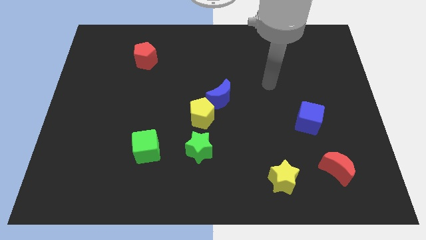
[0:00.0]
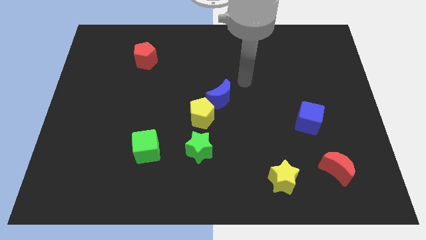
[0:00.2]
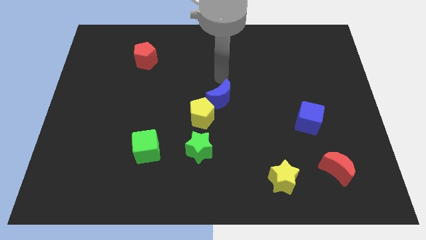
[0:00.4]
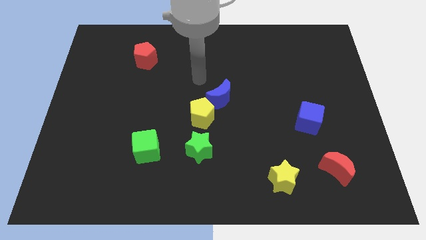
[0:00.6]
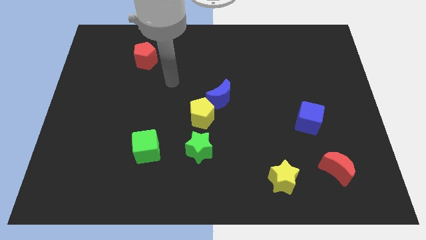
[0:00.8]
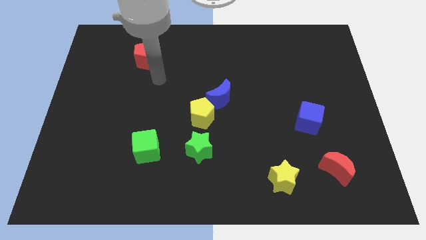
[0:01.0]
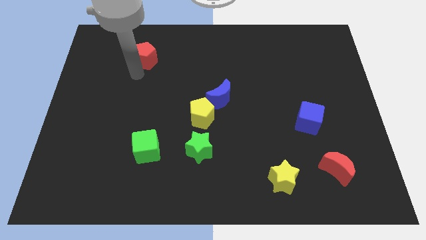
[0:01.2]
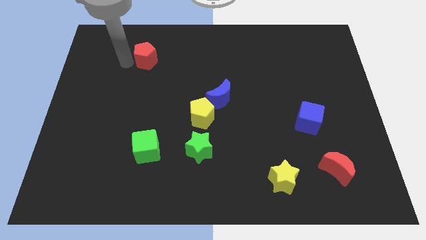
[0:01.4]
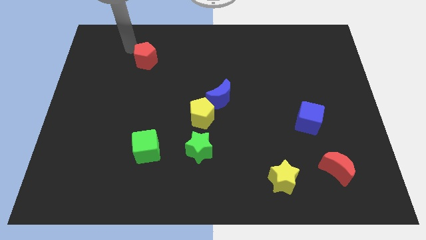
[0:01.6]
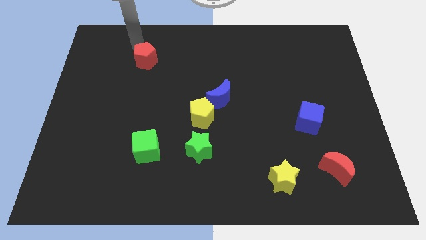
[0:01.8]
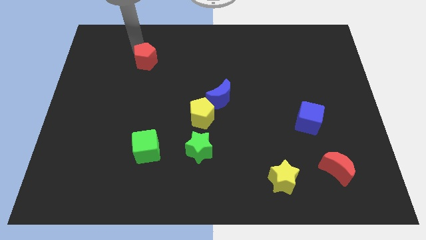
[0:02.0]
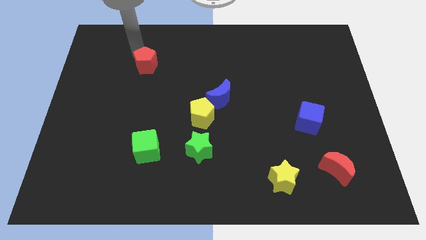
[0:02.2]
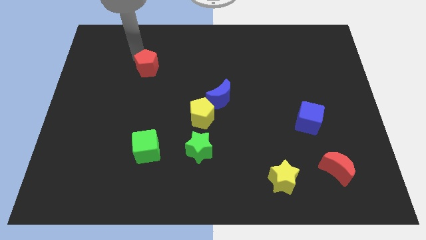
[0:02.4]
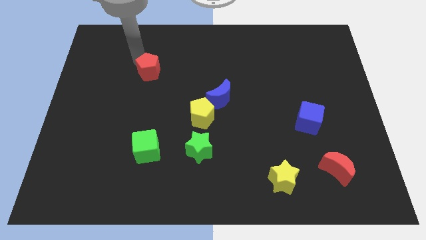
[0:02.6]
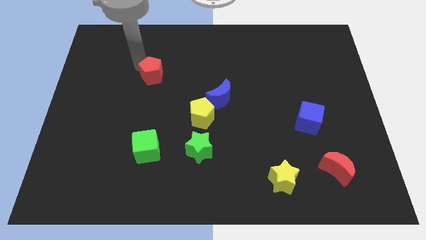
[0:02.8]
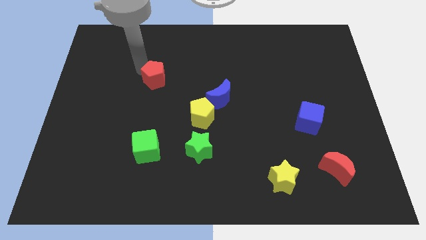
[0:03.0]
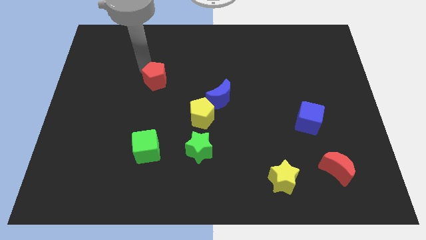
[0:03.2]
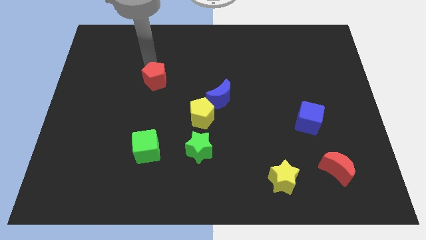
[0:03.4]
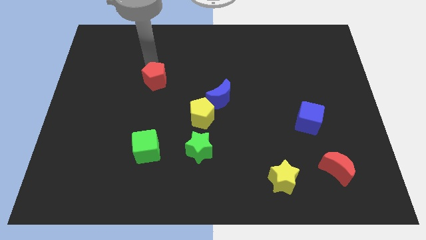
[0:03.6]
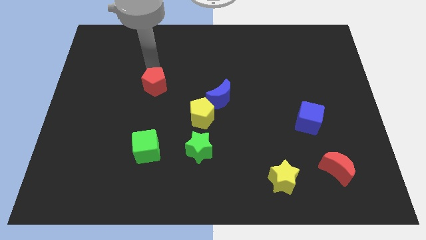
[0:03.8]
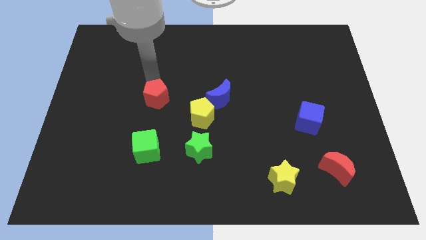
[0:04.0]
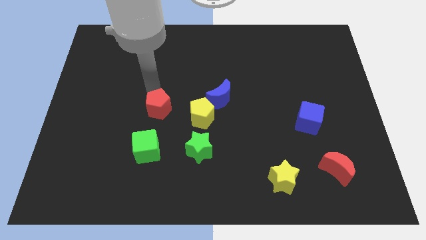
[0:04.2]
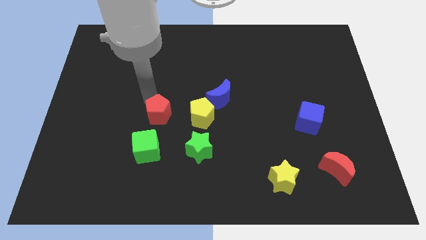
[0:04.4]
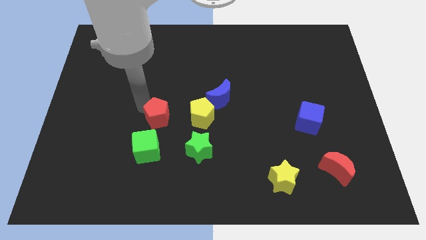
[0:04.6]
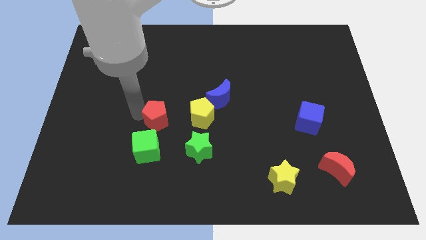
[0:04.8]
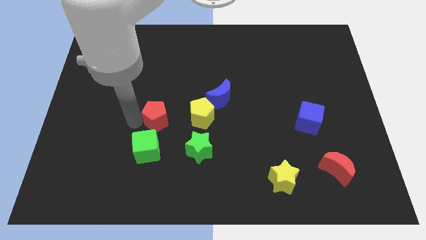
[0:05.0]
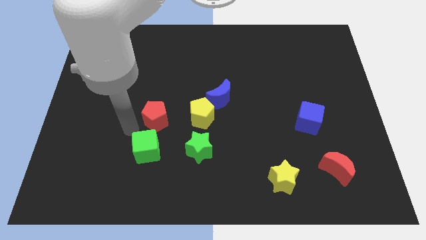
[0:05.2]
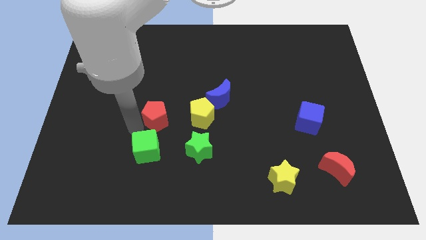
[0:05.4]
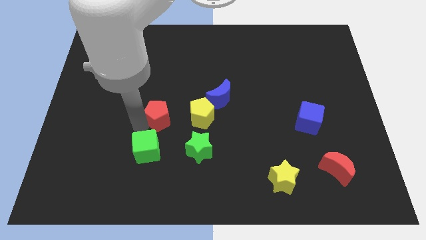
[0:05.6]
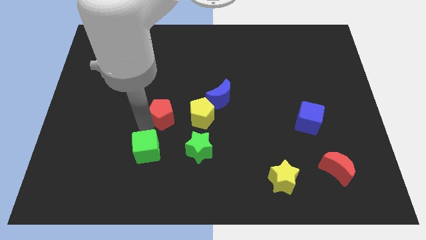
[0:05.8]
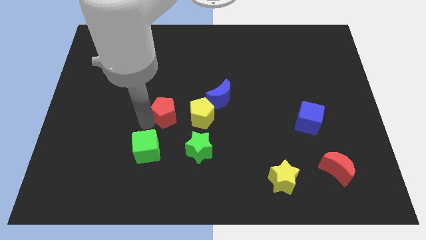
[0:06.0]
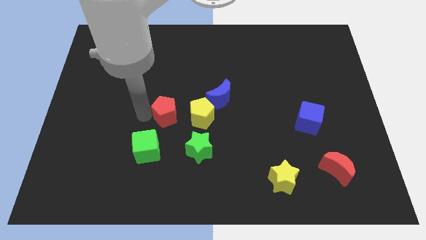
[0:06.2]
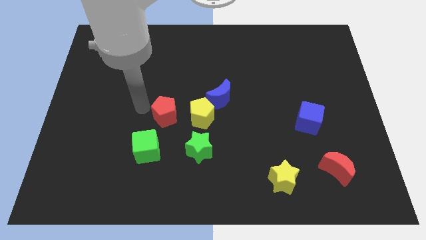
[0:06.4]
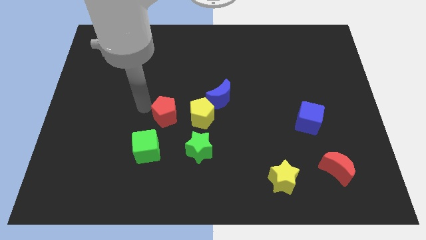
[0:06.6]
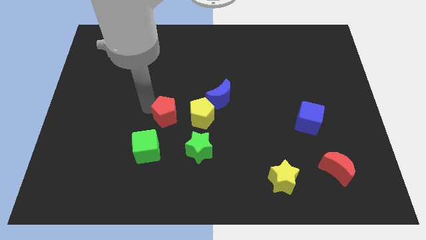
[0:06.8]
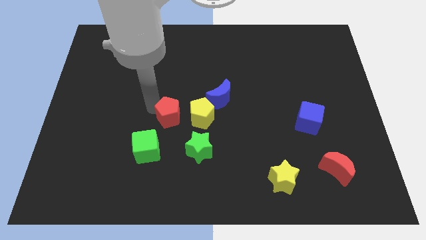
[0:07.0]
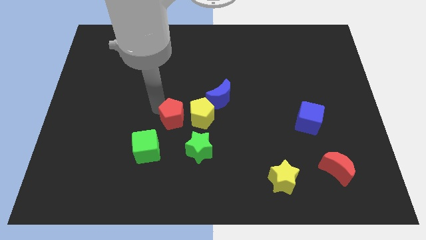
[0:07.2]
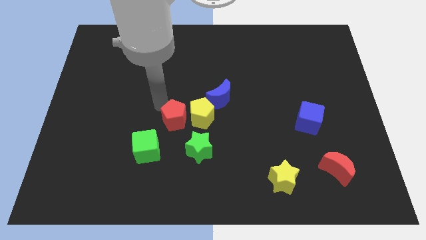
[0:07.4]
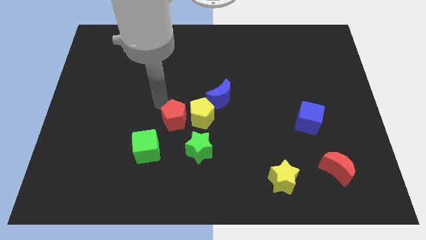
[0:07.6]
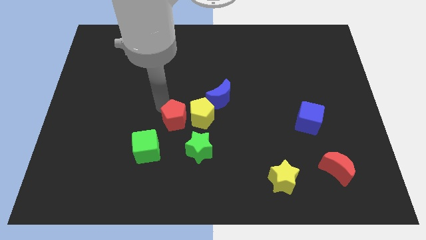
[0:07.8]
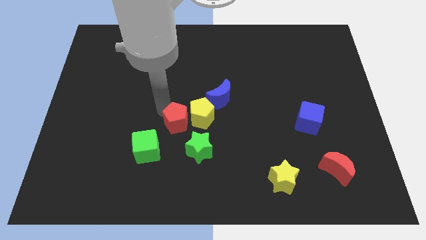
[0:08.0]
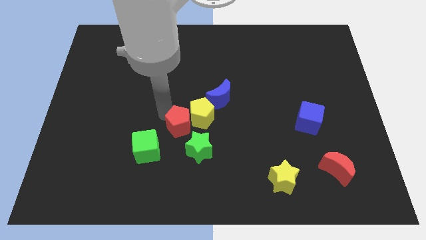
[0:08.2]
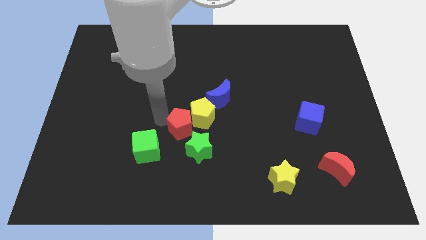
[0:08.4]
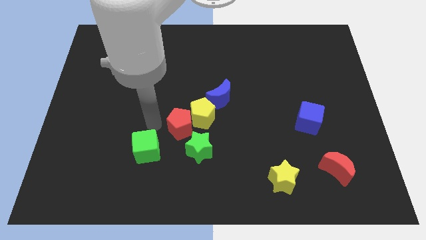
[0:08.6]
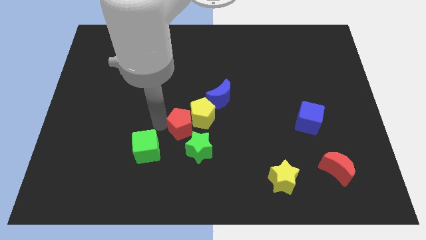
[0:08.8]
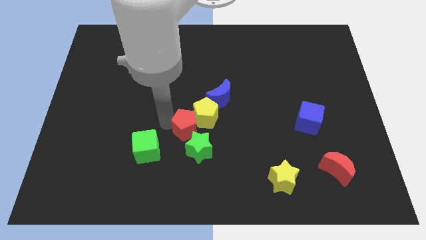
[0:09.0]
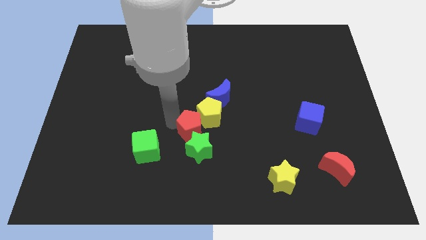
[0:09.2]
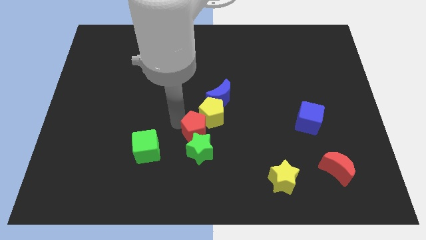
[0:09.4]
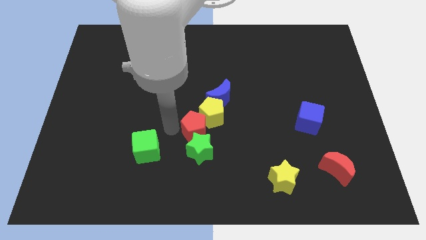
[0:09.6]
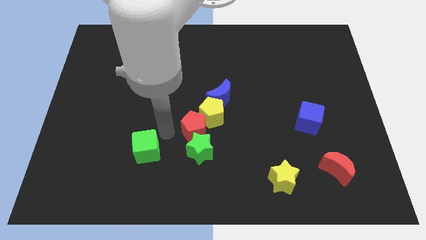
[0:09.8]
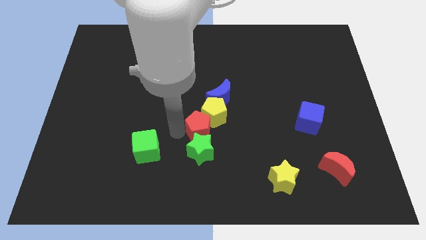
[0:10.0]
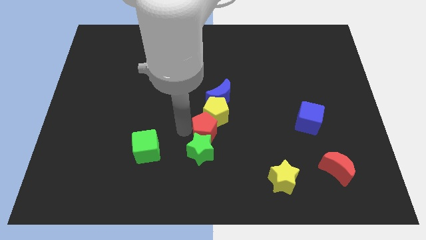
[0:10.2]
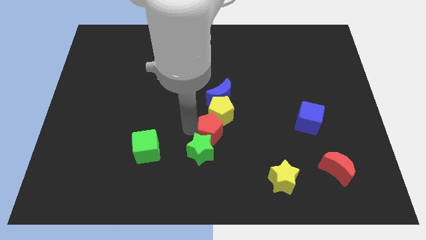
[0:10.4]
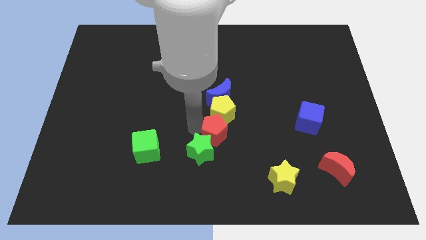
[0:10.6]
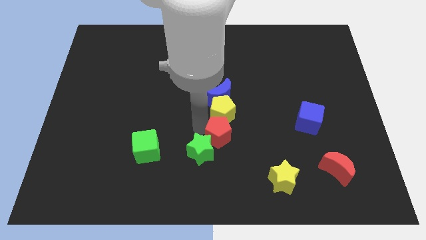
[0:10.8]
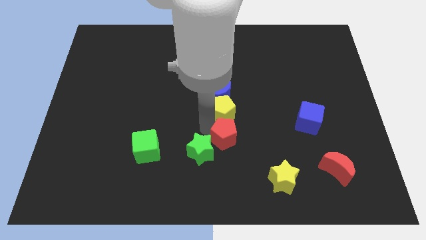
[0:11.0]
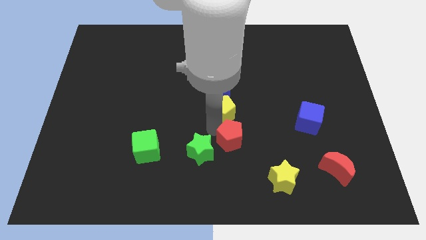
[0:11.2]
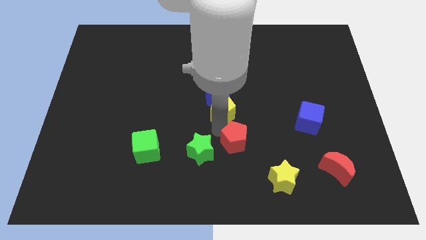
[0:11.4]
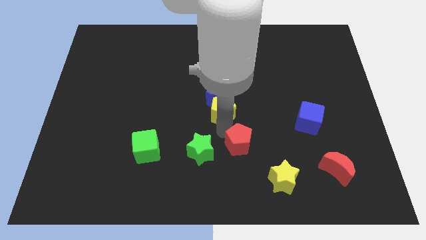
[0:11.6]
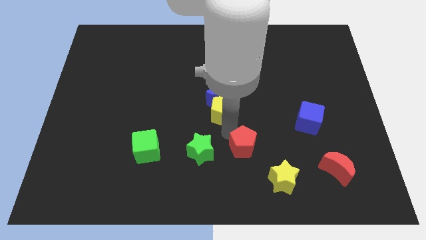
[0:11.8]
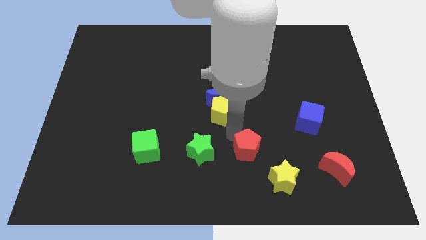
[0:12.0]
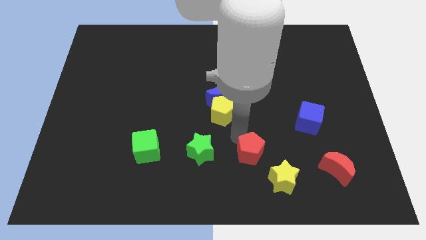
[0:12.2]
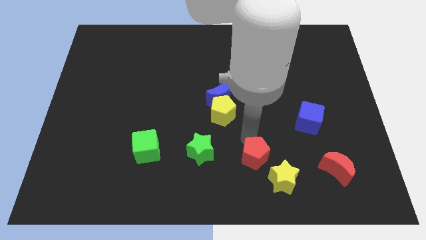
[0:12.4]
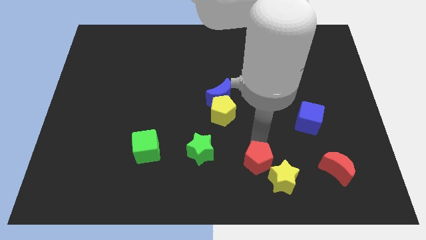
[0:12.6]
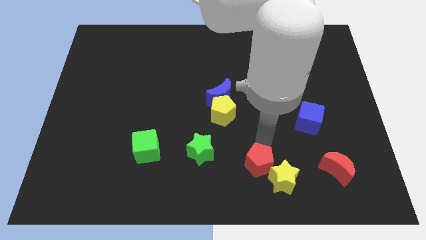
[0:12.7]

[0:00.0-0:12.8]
put the red pentagon next to the yellow star

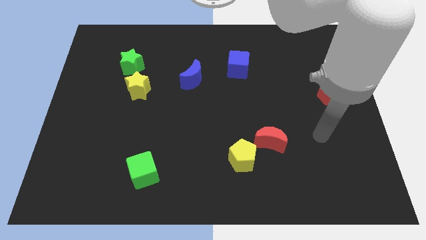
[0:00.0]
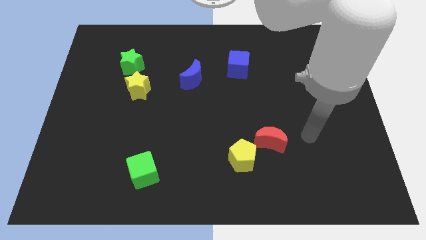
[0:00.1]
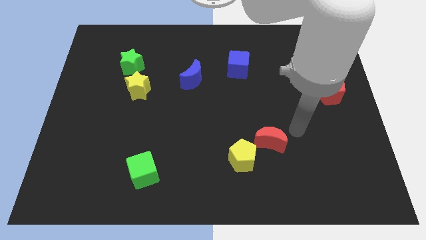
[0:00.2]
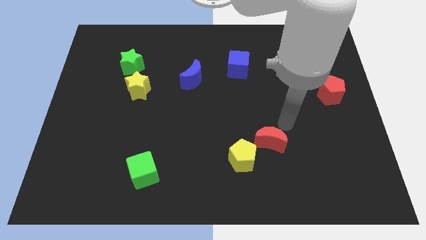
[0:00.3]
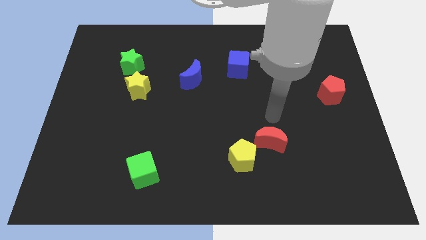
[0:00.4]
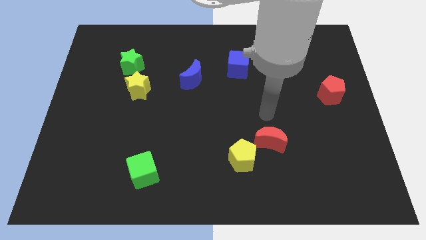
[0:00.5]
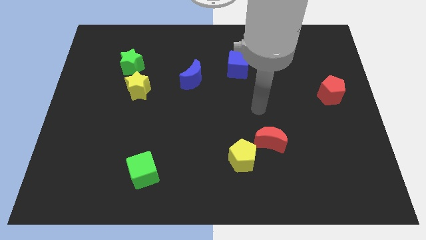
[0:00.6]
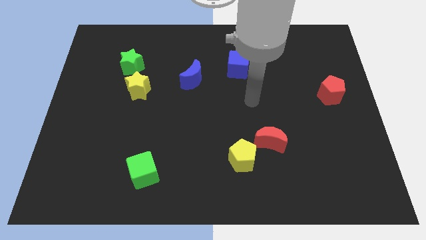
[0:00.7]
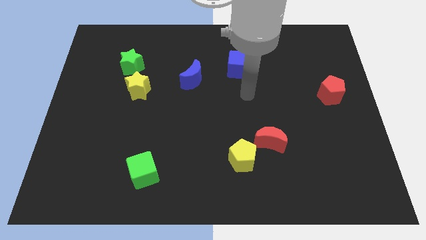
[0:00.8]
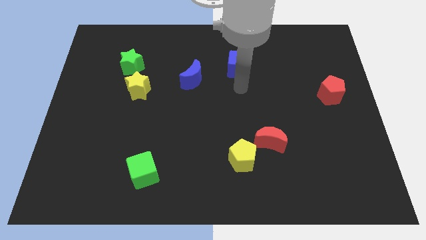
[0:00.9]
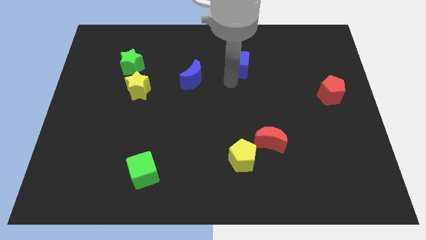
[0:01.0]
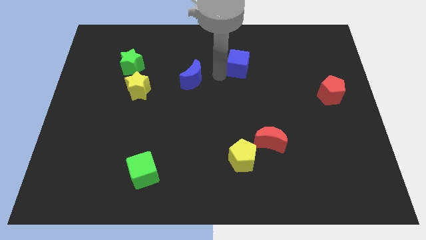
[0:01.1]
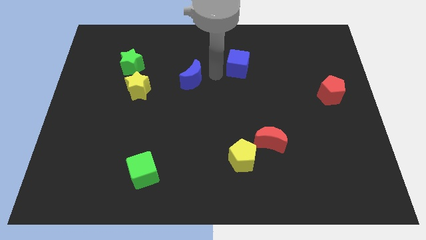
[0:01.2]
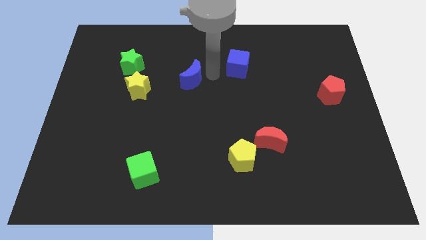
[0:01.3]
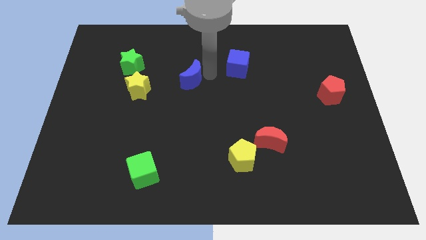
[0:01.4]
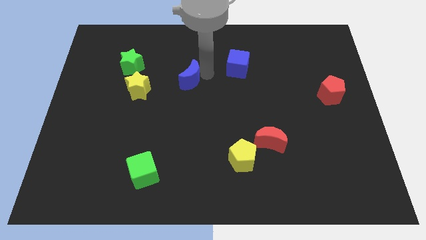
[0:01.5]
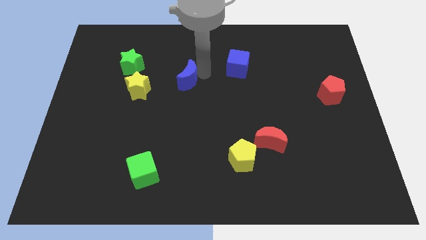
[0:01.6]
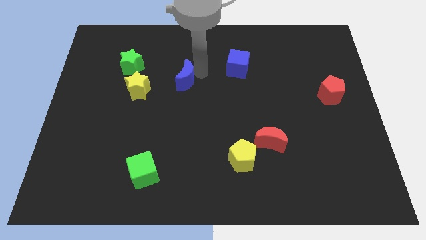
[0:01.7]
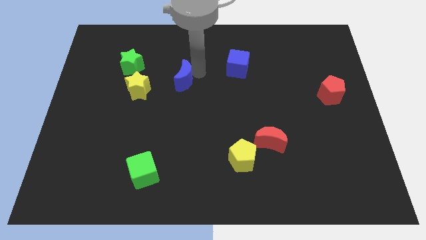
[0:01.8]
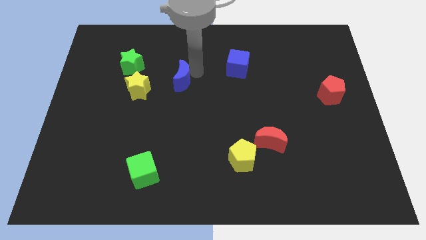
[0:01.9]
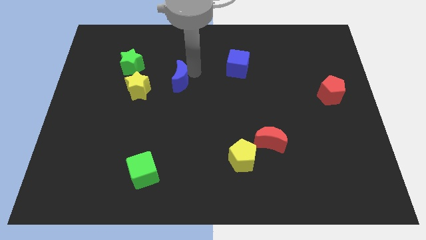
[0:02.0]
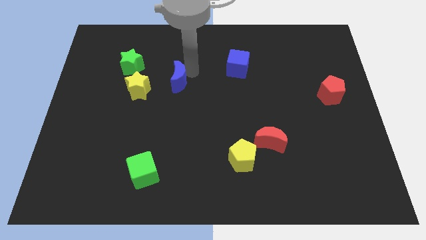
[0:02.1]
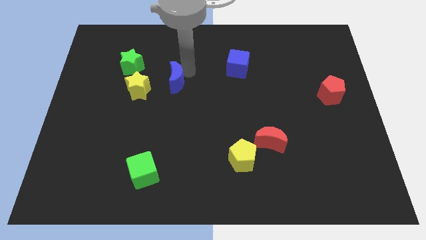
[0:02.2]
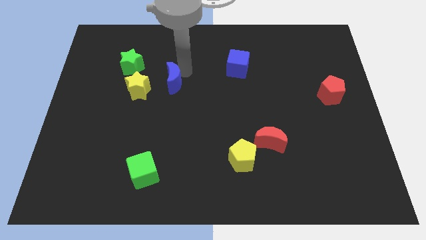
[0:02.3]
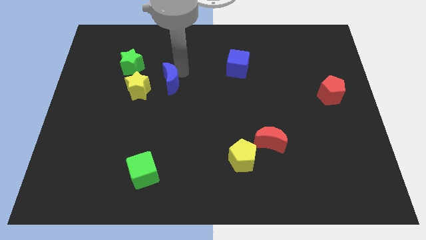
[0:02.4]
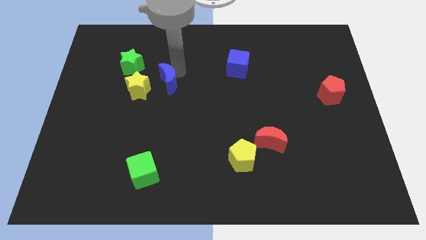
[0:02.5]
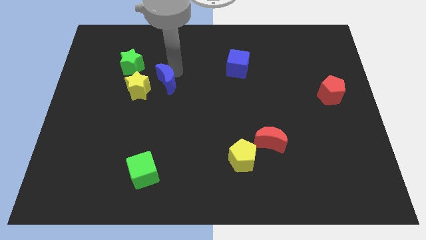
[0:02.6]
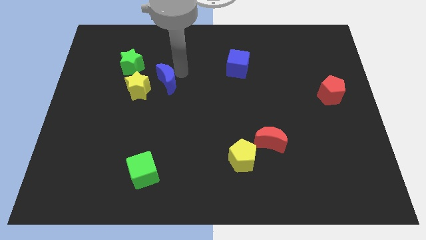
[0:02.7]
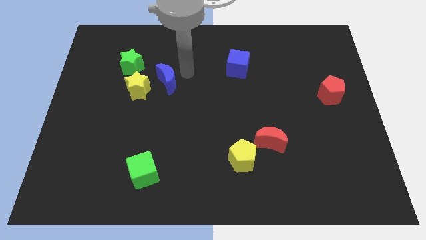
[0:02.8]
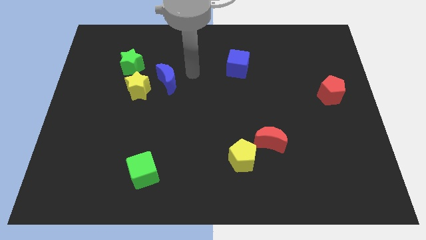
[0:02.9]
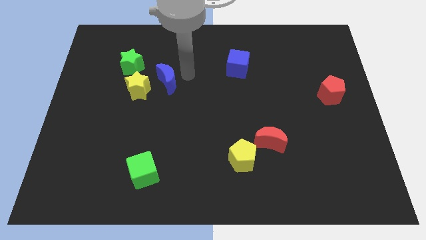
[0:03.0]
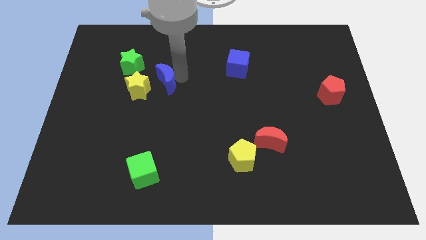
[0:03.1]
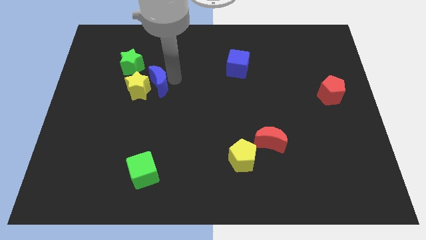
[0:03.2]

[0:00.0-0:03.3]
put the blue moon towards the yellow star
